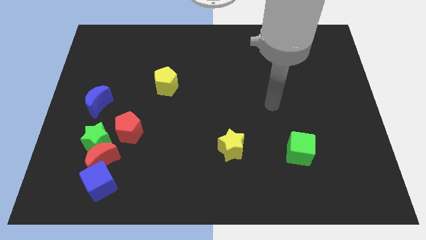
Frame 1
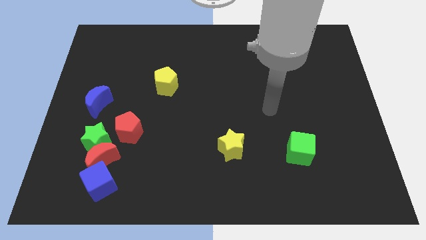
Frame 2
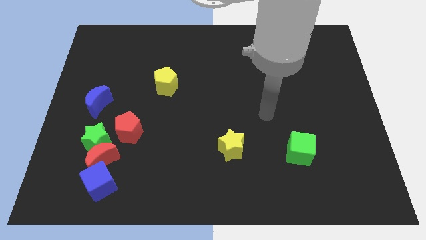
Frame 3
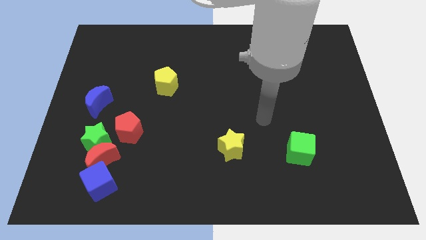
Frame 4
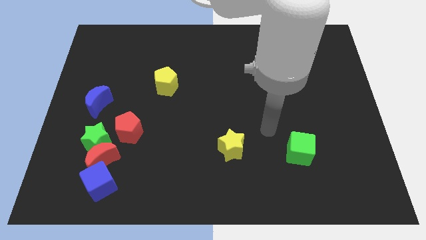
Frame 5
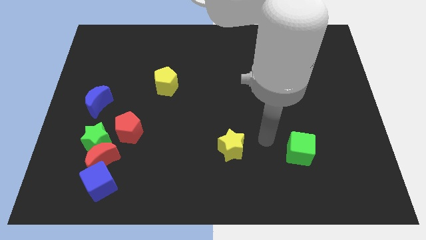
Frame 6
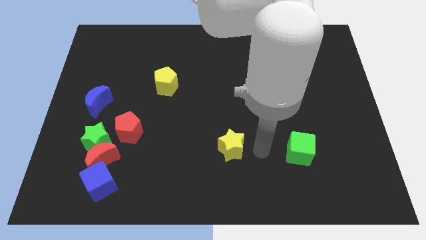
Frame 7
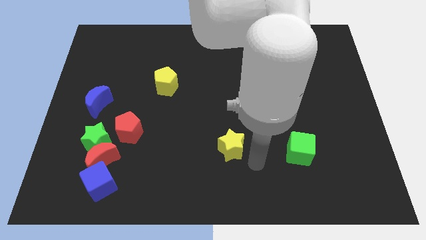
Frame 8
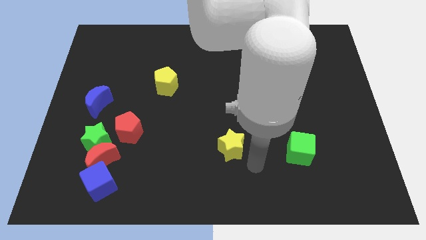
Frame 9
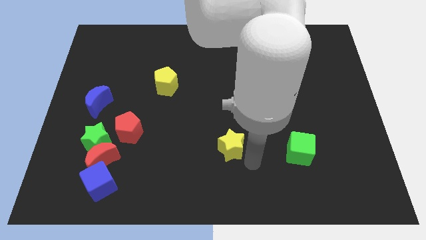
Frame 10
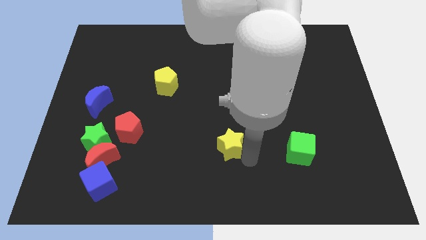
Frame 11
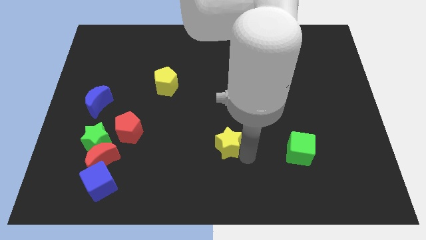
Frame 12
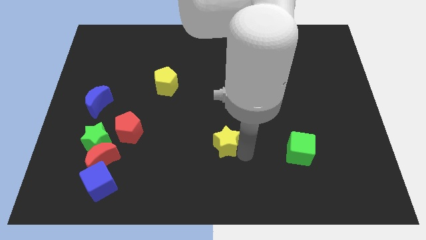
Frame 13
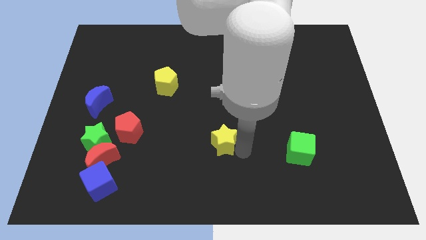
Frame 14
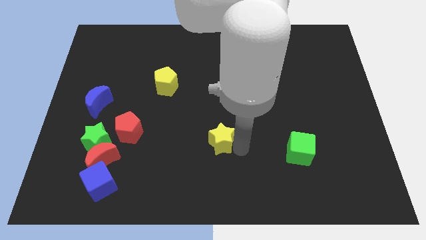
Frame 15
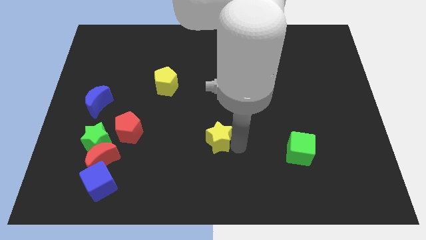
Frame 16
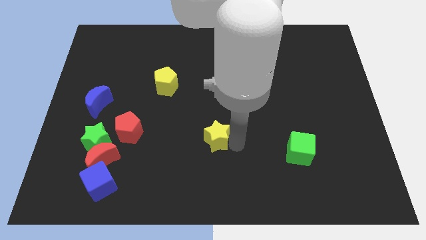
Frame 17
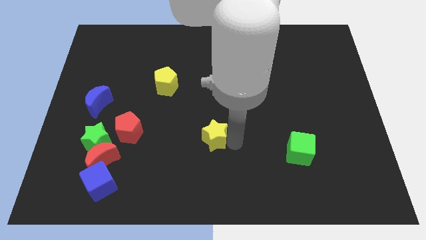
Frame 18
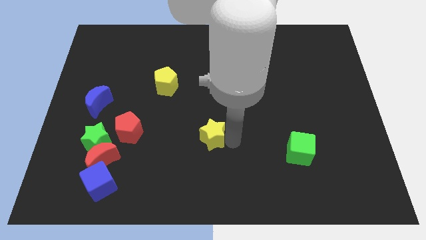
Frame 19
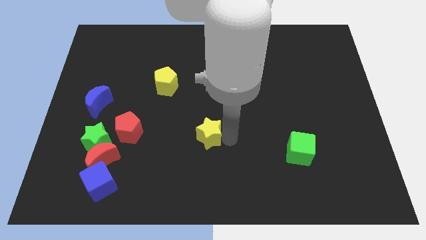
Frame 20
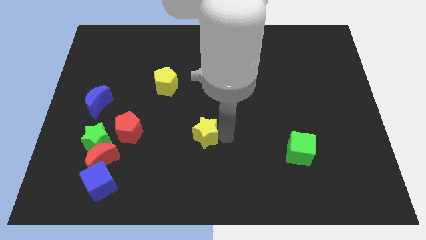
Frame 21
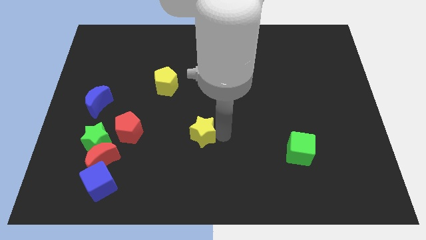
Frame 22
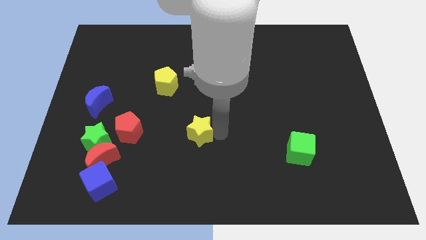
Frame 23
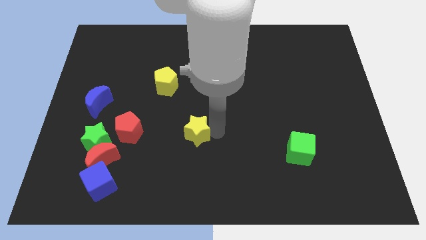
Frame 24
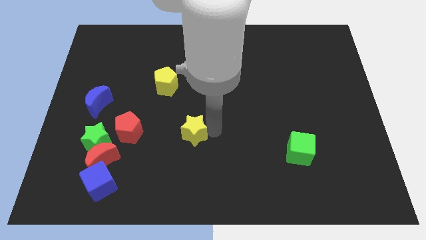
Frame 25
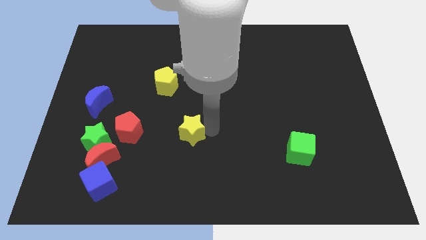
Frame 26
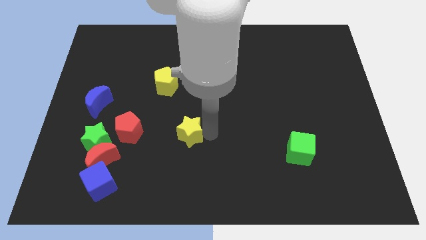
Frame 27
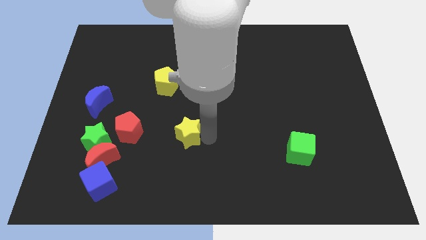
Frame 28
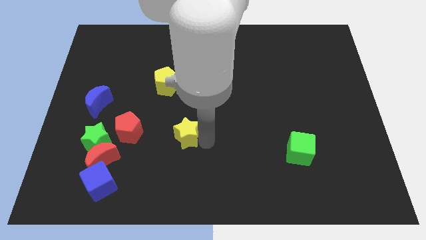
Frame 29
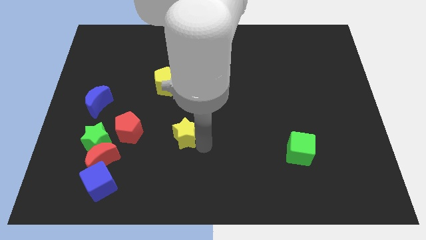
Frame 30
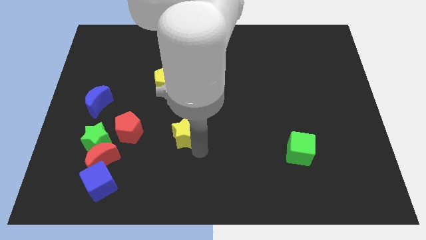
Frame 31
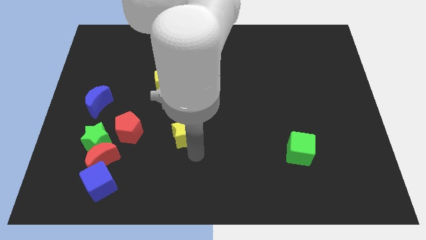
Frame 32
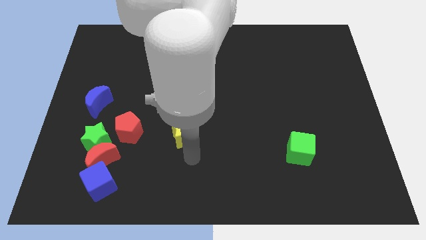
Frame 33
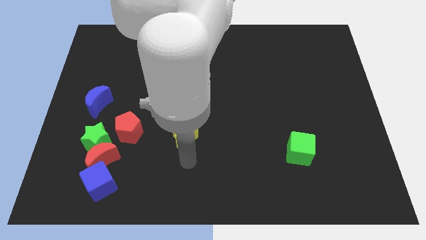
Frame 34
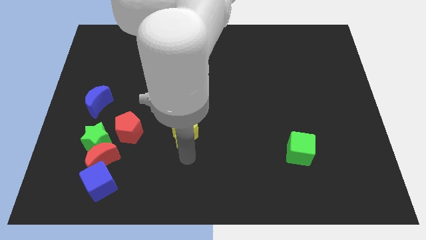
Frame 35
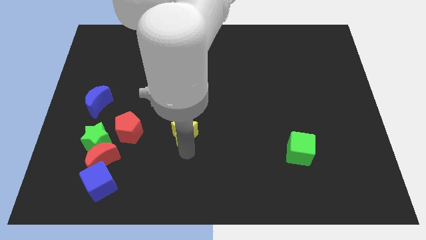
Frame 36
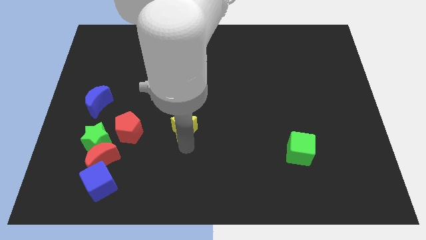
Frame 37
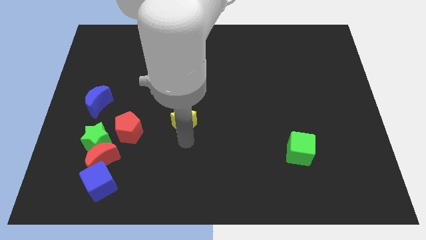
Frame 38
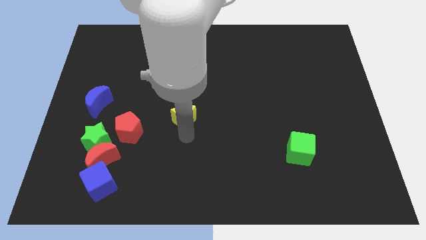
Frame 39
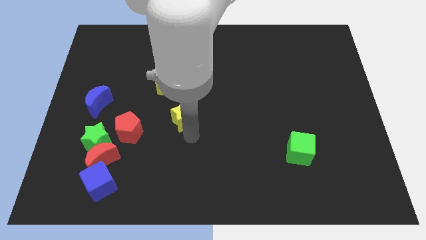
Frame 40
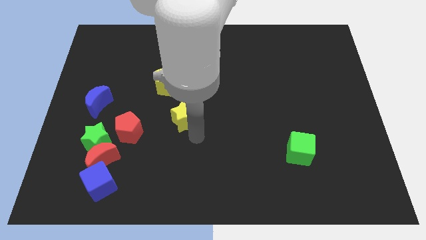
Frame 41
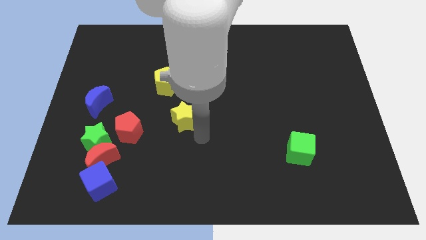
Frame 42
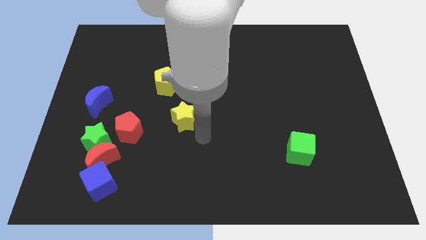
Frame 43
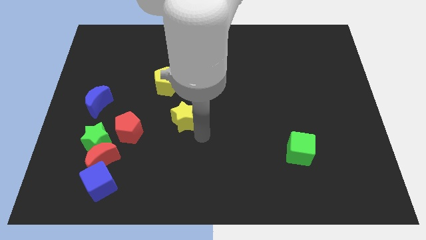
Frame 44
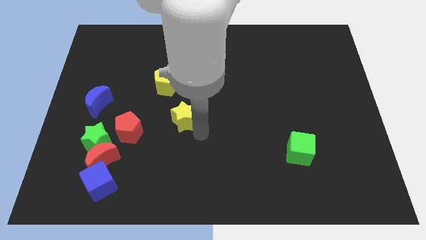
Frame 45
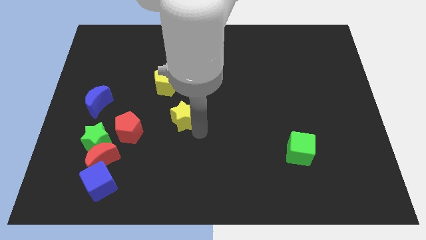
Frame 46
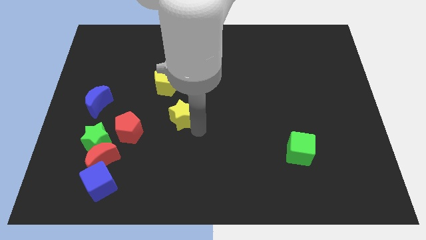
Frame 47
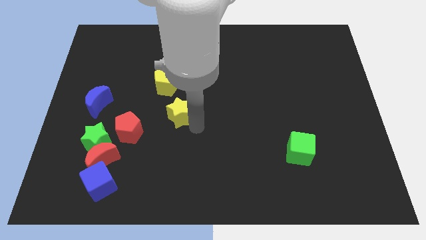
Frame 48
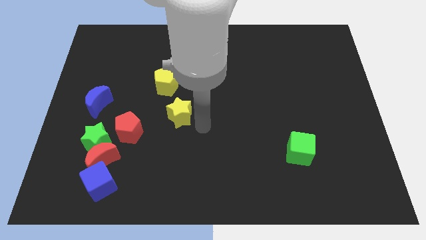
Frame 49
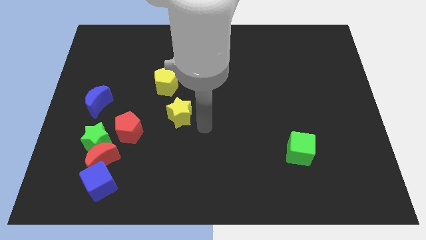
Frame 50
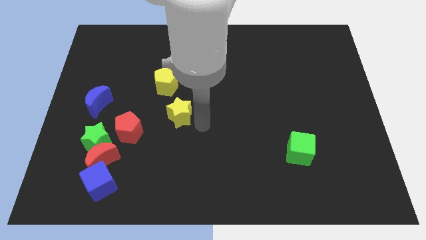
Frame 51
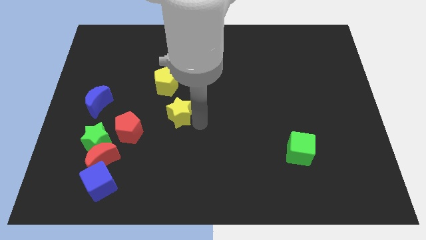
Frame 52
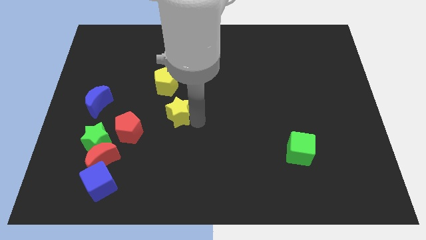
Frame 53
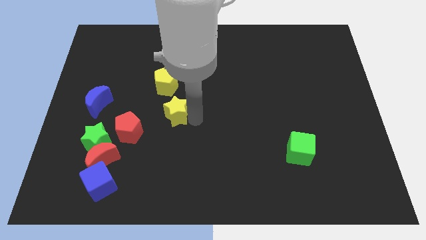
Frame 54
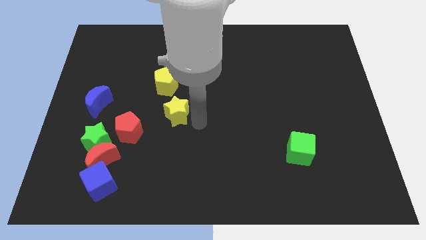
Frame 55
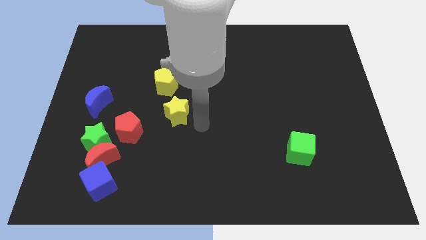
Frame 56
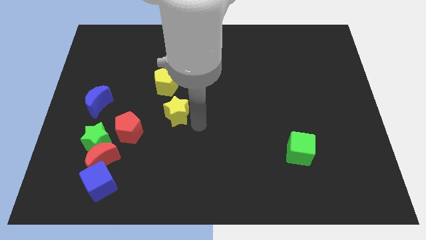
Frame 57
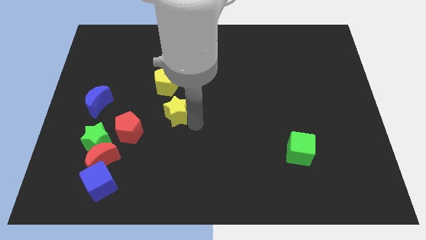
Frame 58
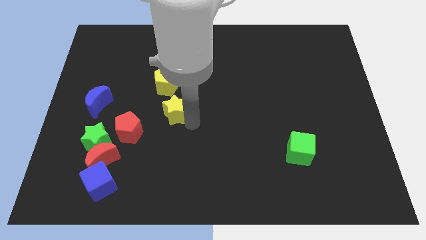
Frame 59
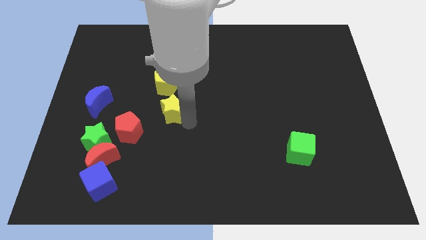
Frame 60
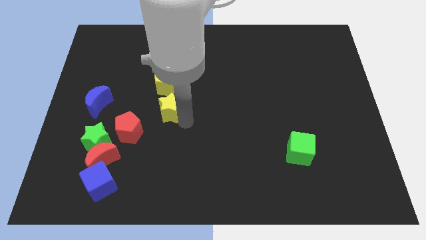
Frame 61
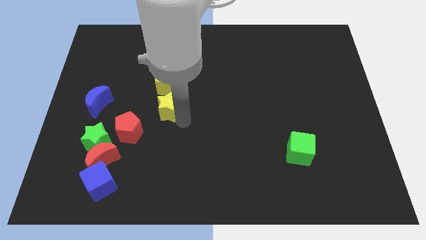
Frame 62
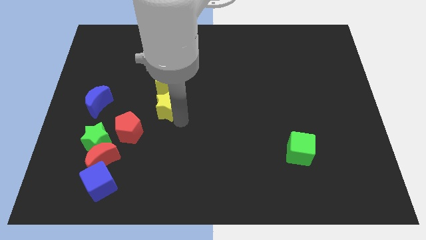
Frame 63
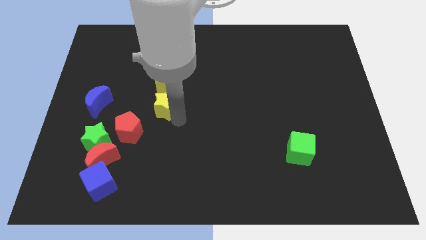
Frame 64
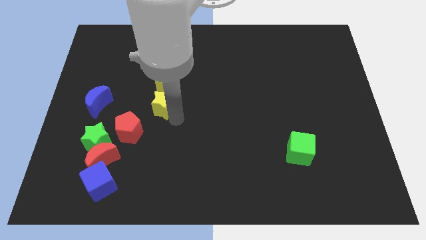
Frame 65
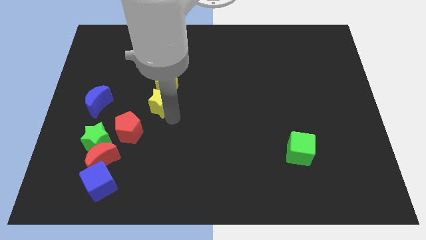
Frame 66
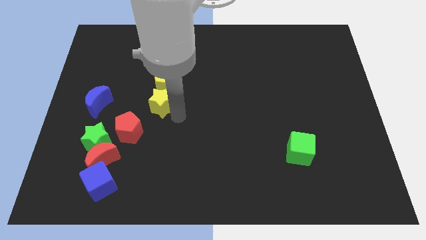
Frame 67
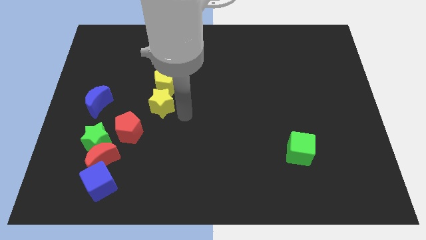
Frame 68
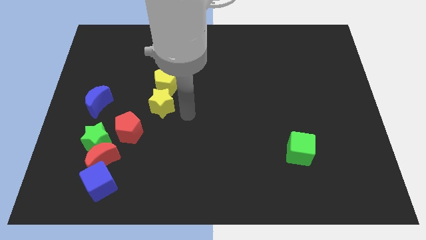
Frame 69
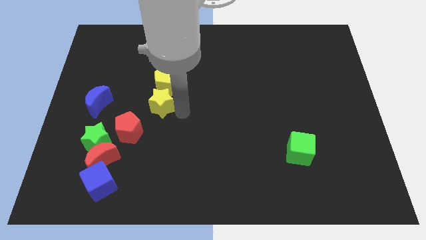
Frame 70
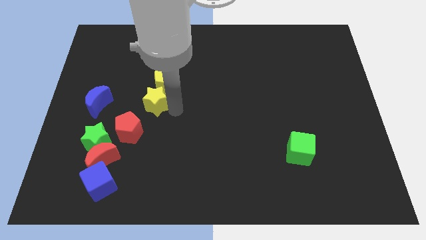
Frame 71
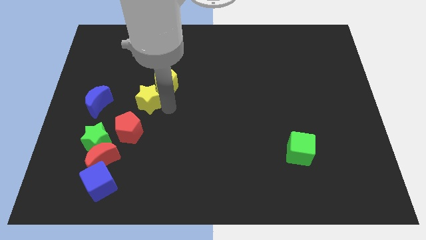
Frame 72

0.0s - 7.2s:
slide the yellow star to the top side of the red pentagon

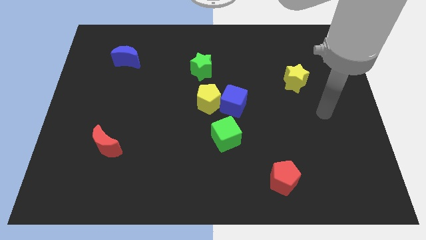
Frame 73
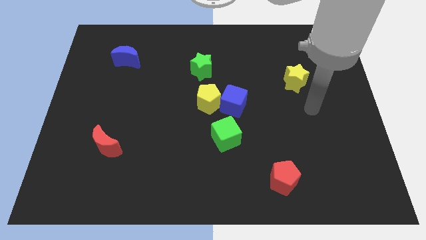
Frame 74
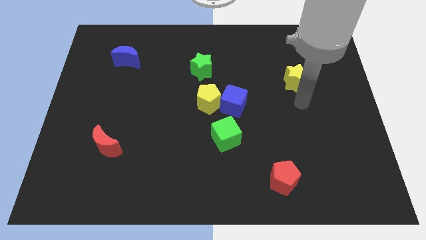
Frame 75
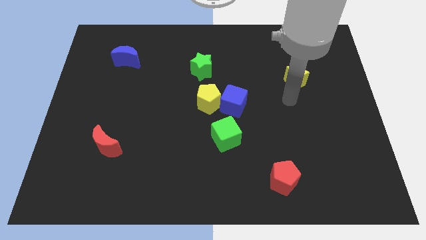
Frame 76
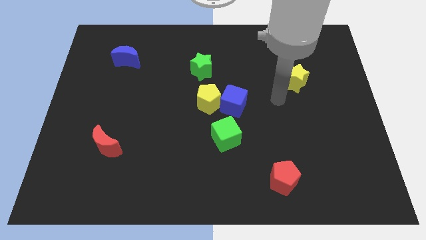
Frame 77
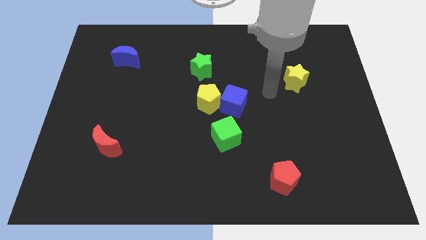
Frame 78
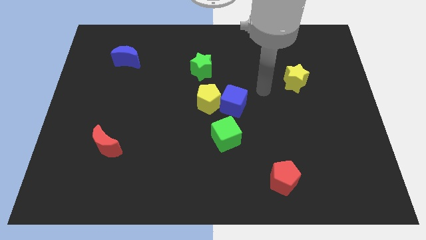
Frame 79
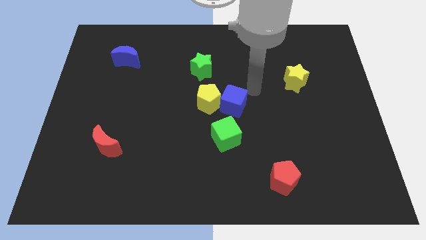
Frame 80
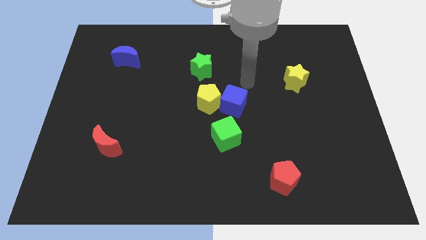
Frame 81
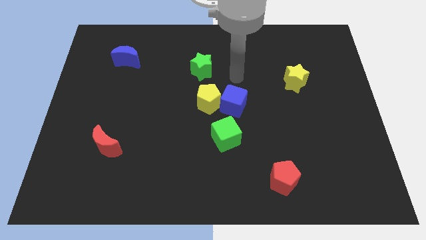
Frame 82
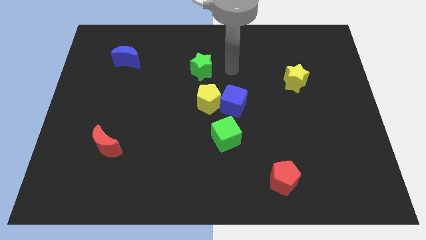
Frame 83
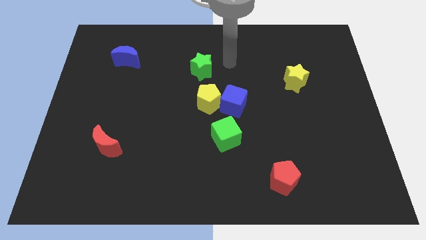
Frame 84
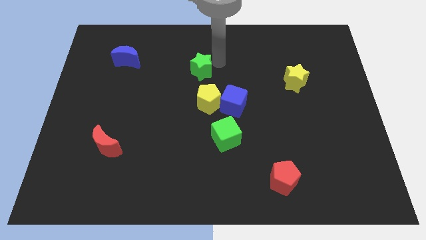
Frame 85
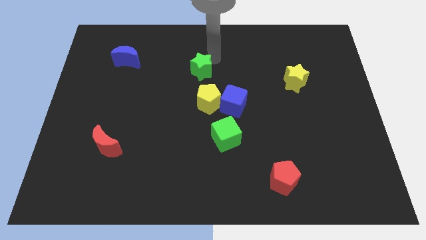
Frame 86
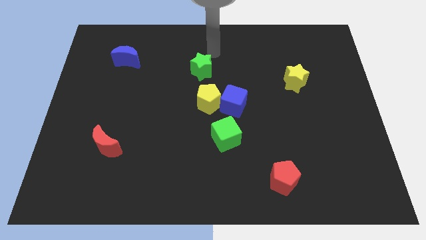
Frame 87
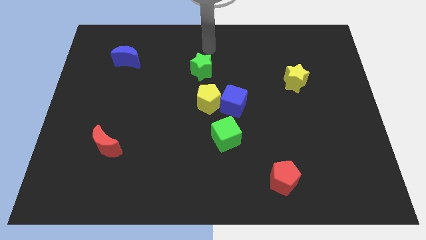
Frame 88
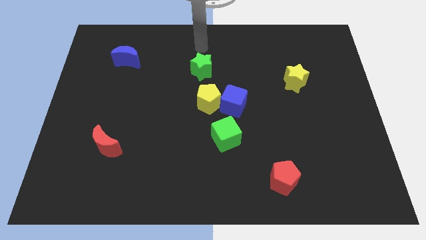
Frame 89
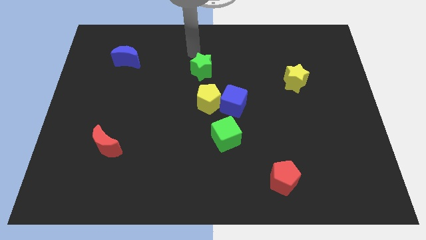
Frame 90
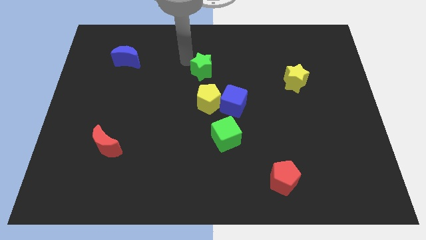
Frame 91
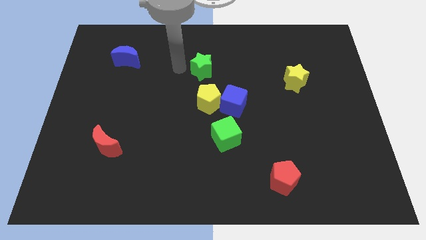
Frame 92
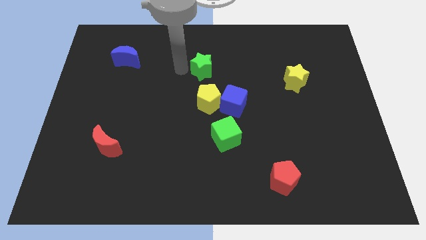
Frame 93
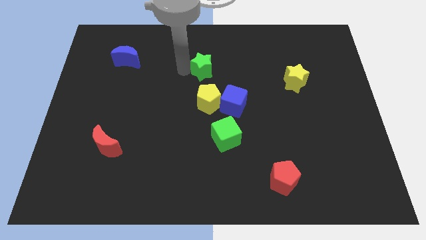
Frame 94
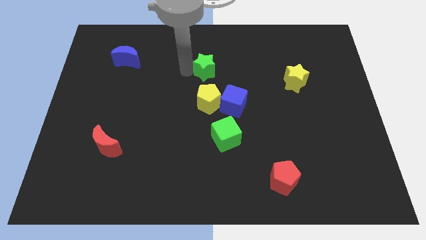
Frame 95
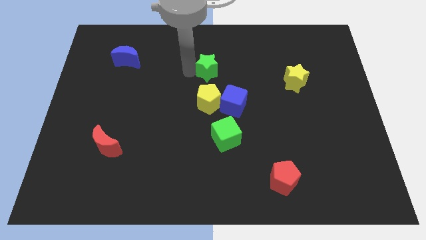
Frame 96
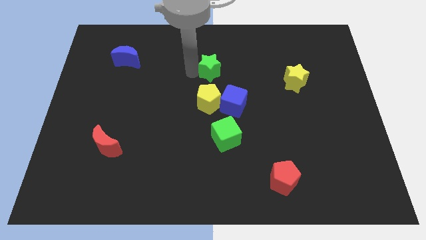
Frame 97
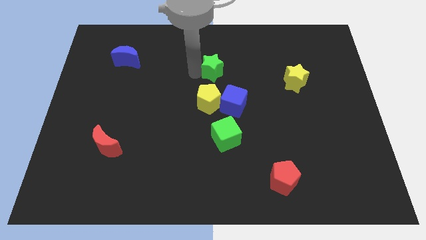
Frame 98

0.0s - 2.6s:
put the green star to the top side of the blue cube
